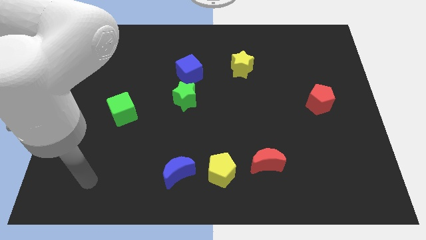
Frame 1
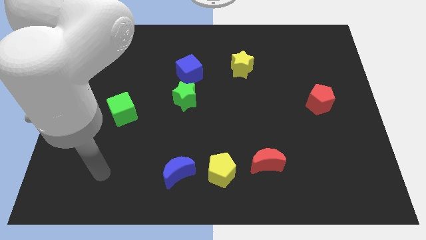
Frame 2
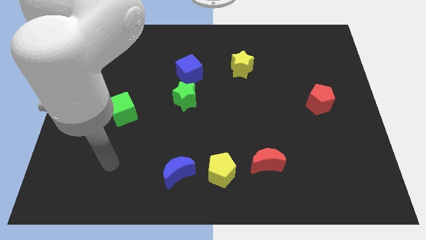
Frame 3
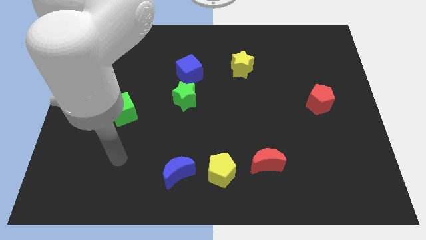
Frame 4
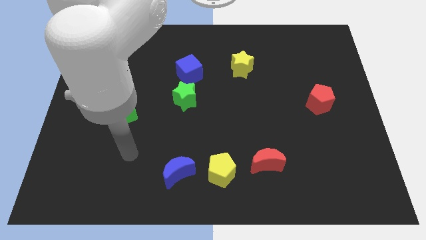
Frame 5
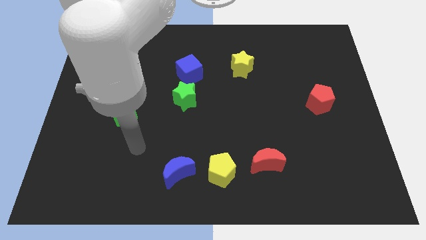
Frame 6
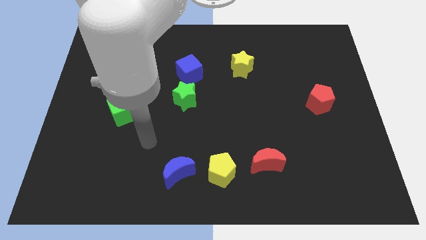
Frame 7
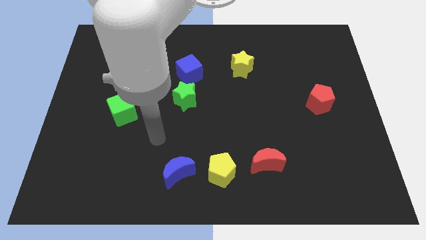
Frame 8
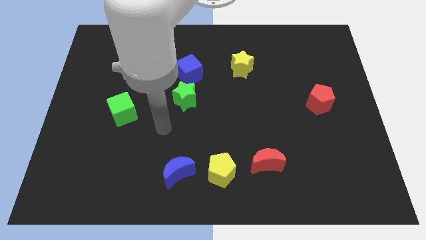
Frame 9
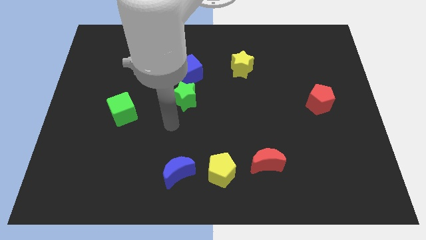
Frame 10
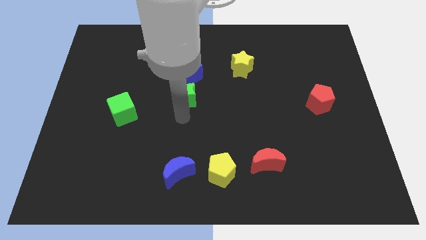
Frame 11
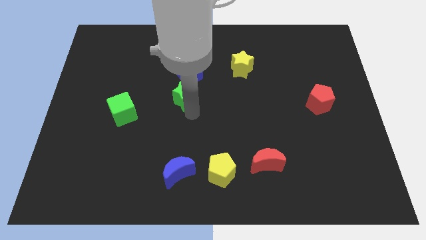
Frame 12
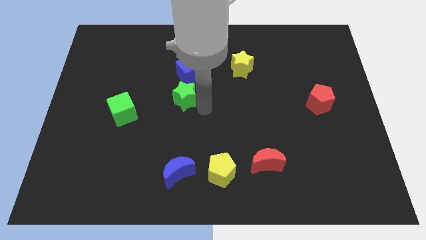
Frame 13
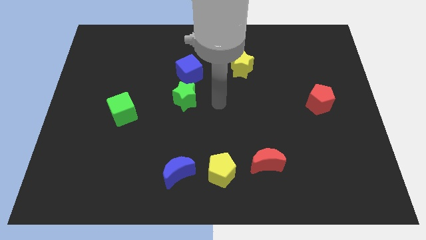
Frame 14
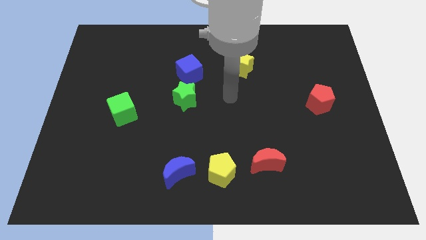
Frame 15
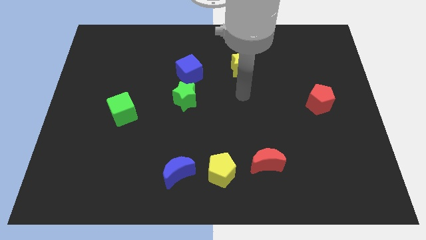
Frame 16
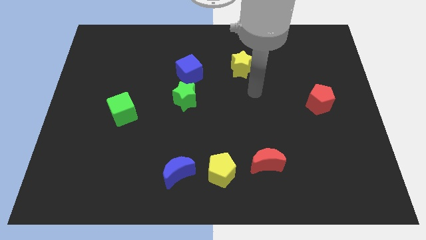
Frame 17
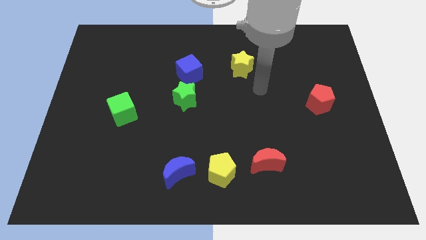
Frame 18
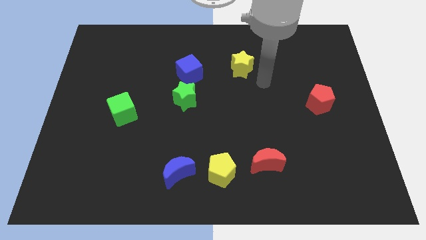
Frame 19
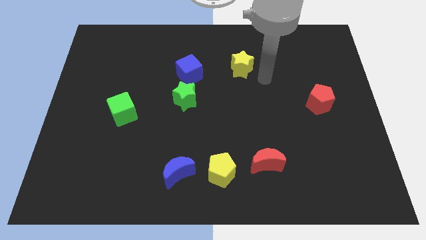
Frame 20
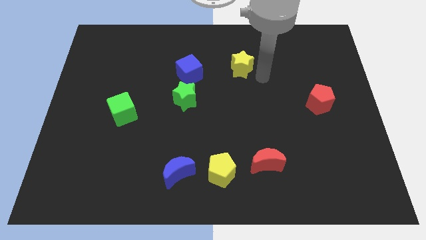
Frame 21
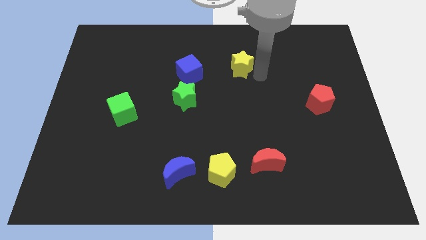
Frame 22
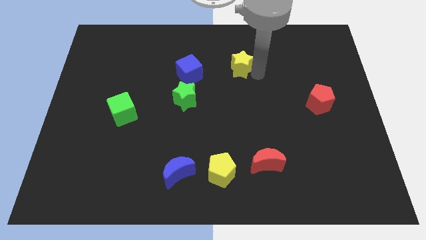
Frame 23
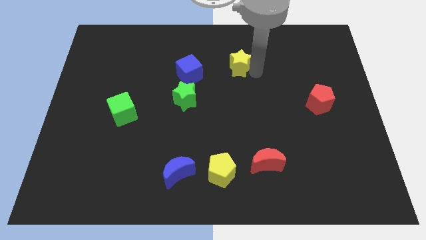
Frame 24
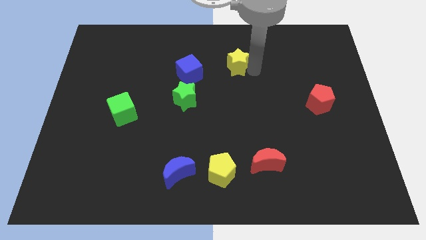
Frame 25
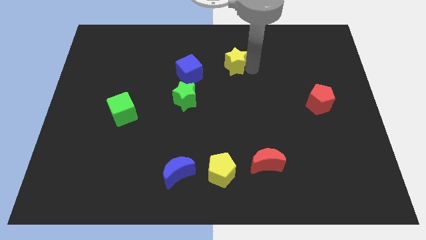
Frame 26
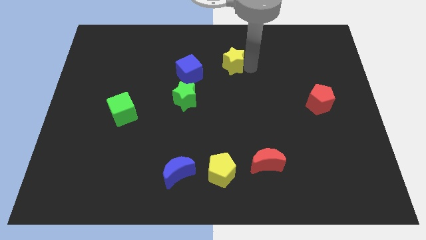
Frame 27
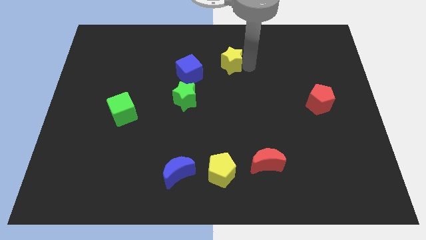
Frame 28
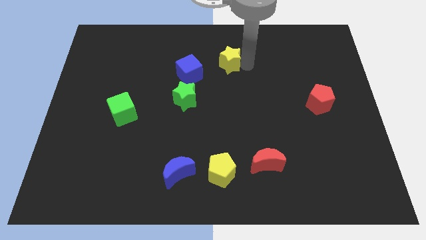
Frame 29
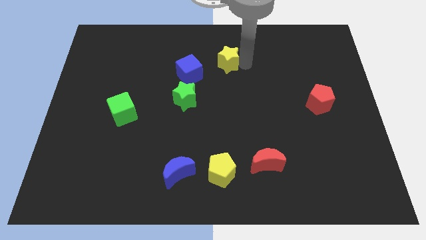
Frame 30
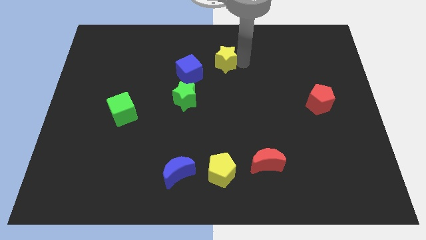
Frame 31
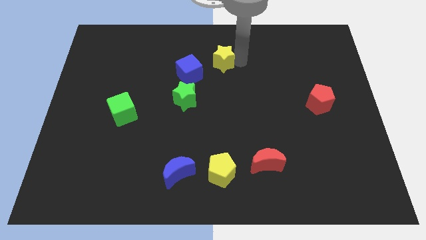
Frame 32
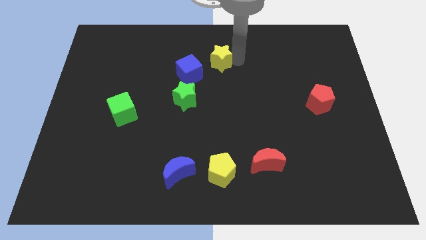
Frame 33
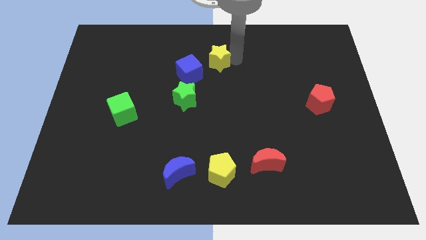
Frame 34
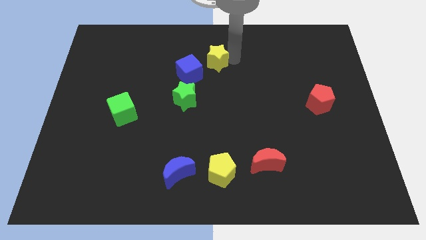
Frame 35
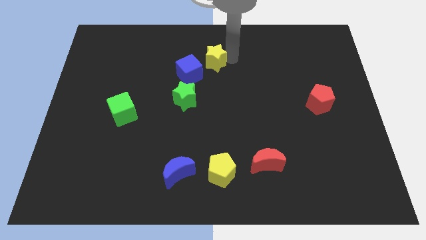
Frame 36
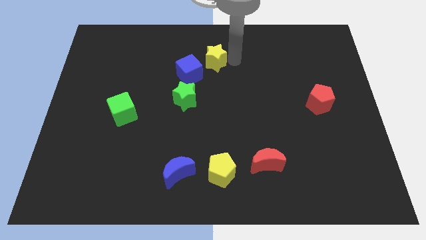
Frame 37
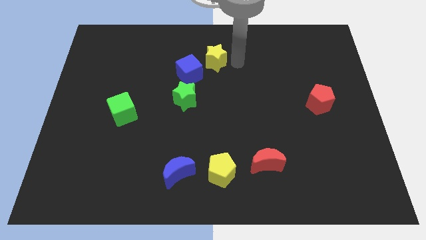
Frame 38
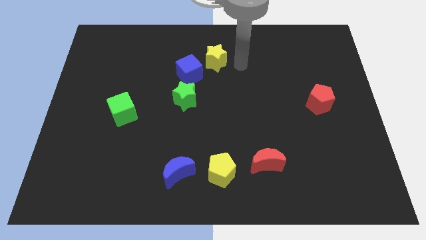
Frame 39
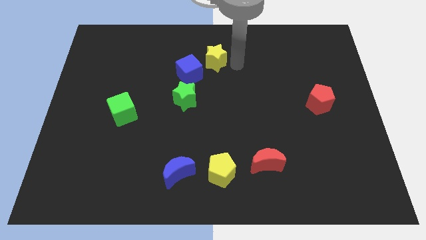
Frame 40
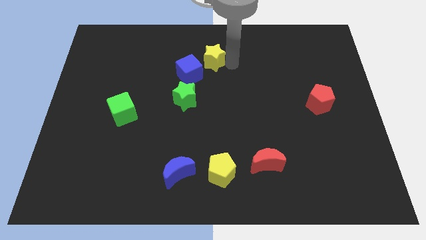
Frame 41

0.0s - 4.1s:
slide the yellow star somewhat to the left

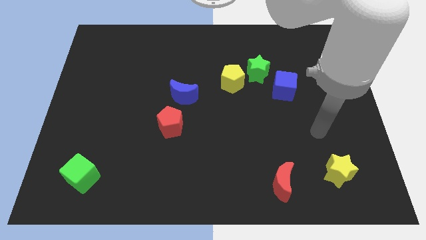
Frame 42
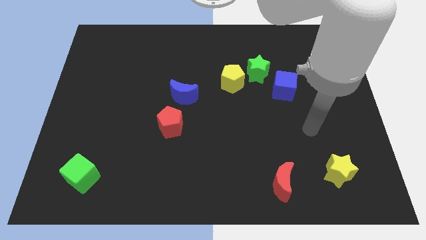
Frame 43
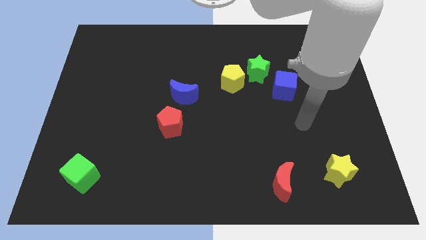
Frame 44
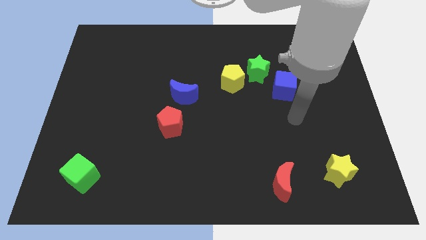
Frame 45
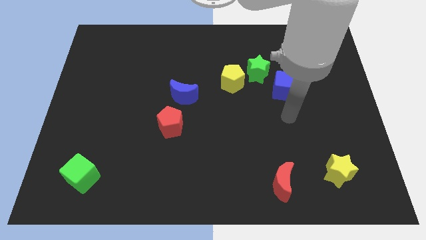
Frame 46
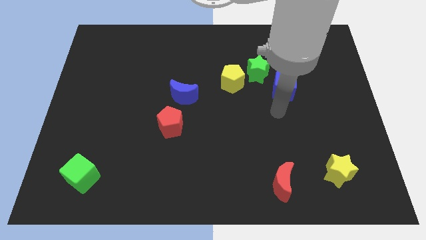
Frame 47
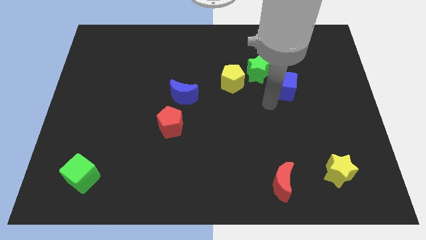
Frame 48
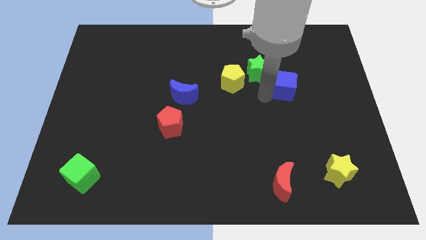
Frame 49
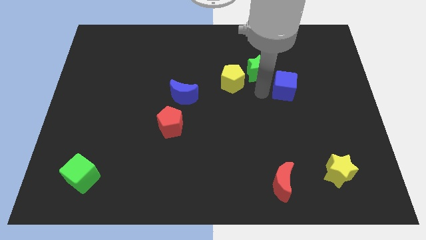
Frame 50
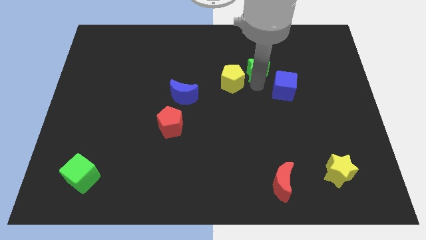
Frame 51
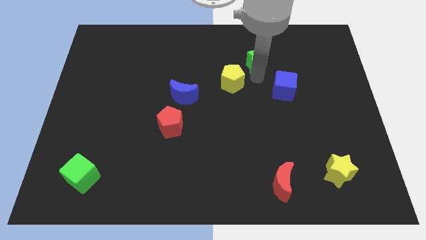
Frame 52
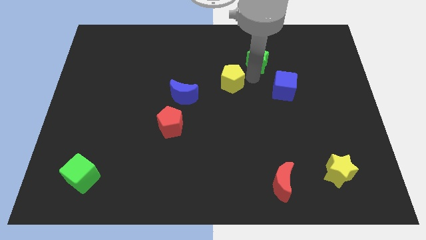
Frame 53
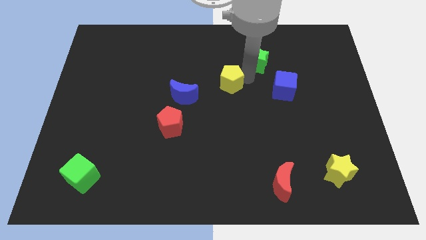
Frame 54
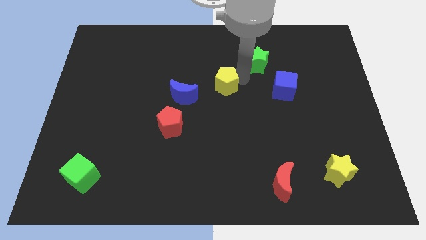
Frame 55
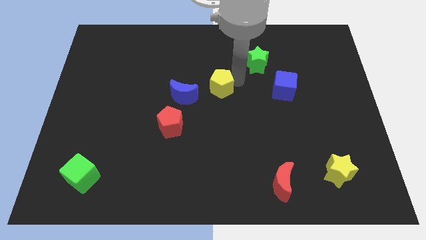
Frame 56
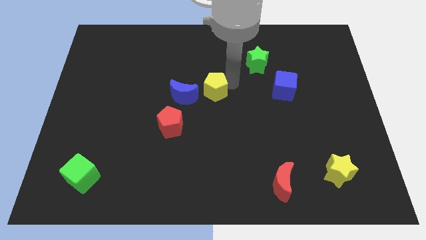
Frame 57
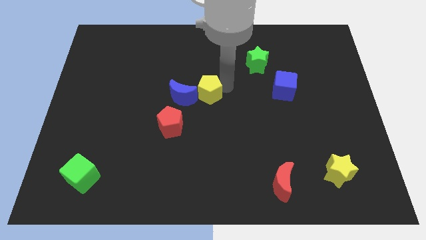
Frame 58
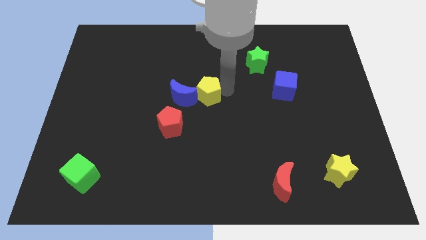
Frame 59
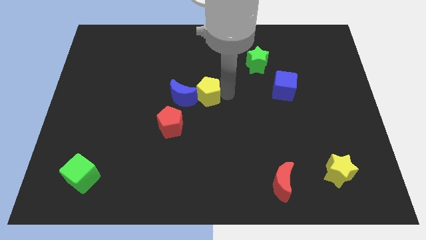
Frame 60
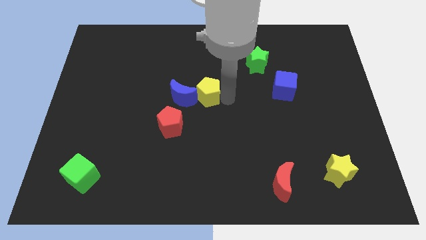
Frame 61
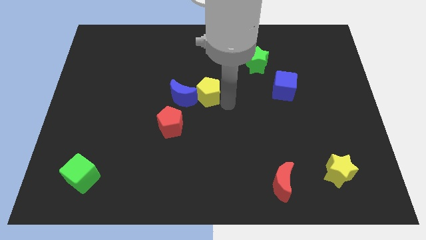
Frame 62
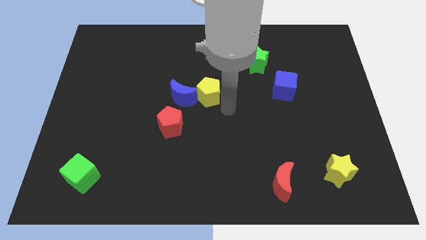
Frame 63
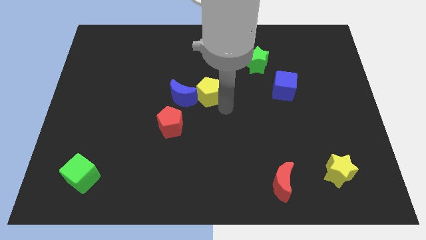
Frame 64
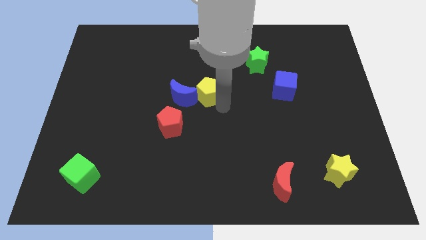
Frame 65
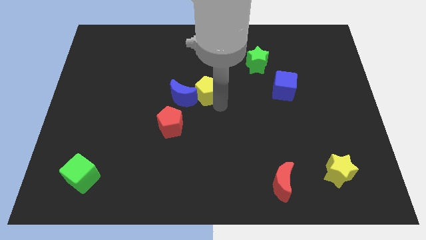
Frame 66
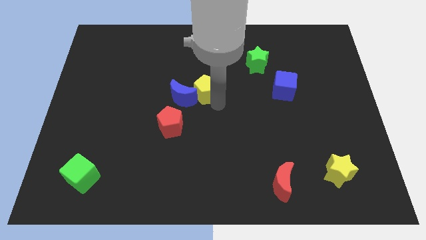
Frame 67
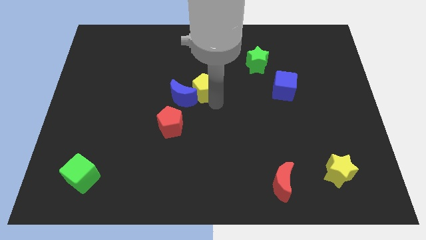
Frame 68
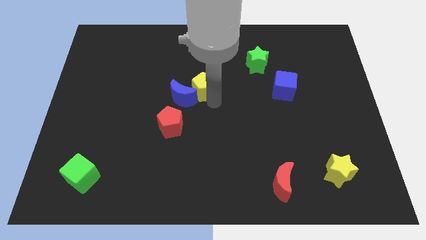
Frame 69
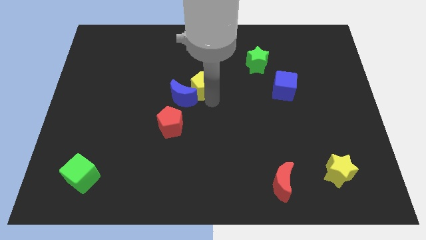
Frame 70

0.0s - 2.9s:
slightly slide the yellow pentagon left

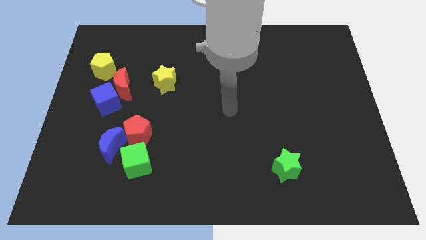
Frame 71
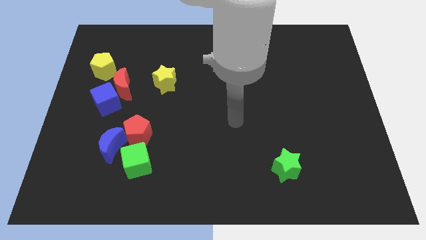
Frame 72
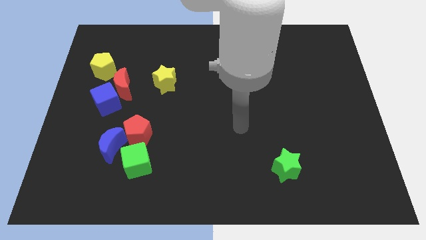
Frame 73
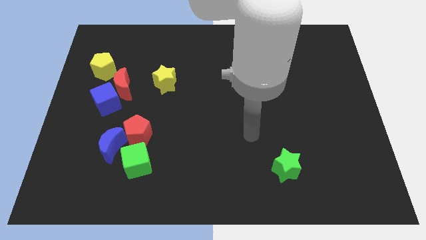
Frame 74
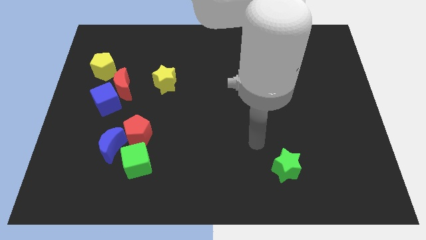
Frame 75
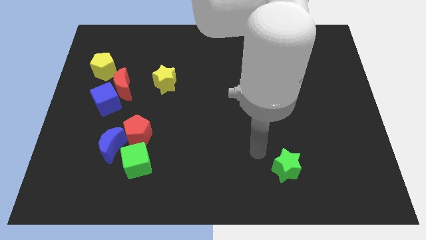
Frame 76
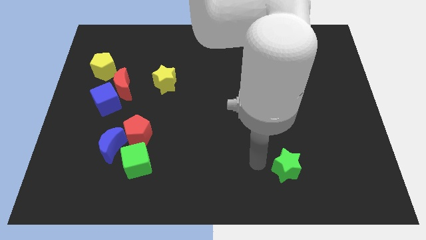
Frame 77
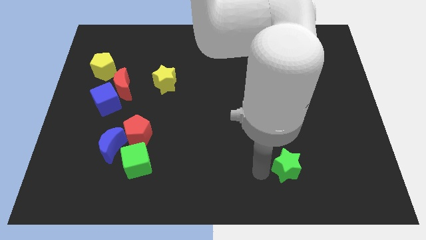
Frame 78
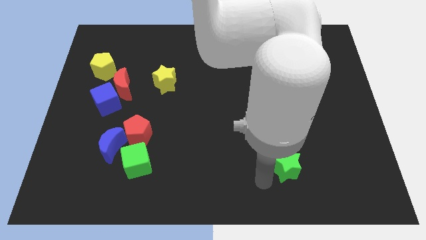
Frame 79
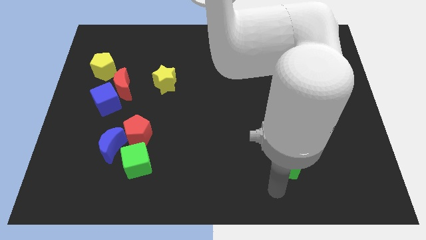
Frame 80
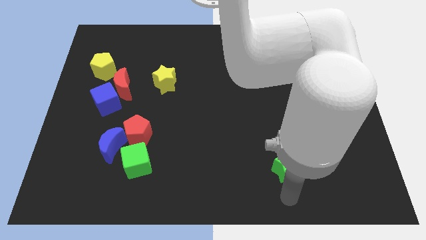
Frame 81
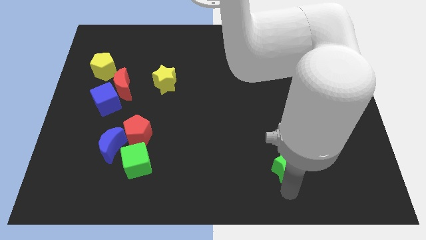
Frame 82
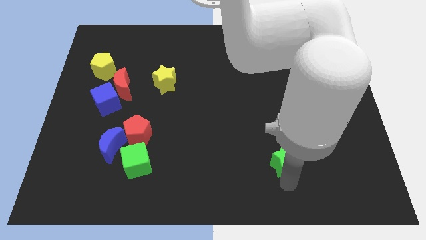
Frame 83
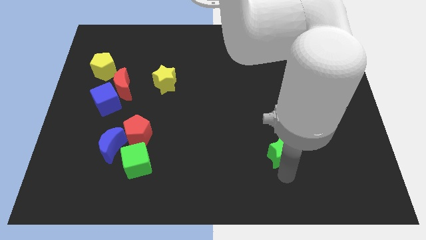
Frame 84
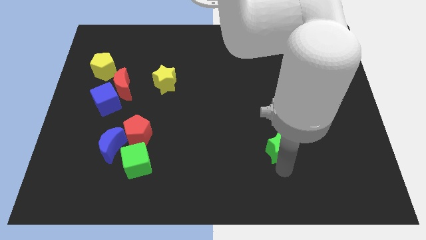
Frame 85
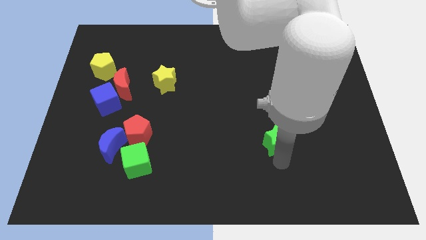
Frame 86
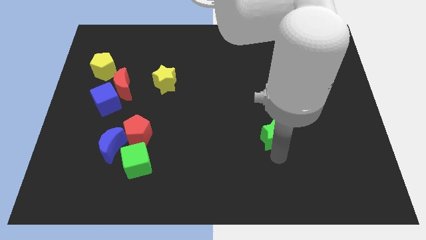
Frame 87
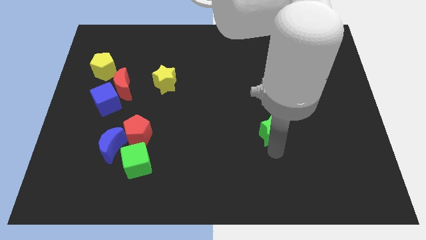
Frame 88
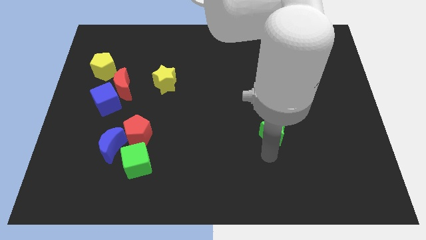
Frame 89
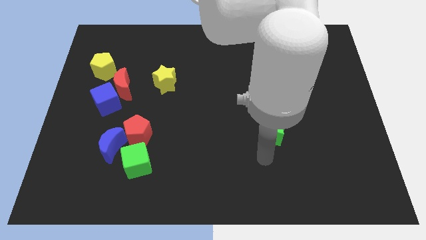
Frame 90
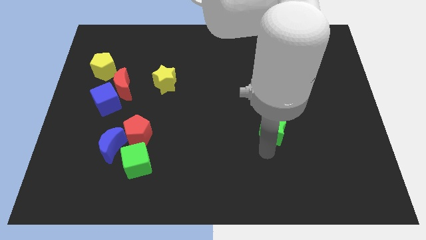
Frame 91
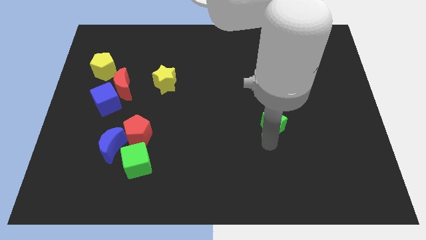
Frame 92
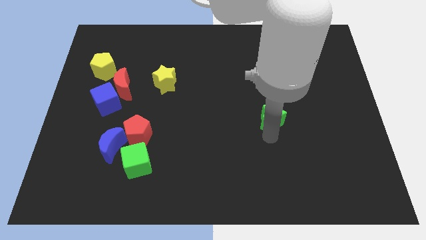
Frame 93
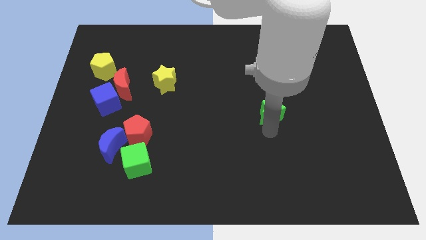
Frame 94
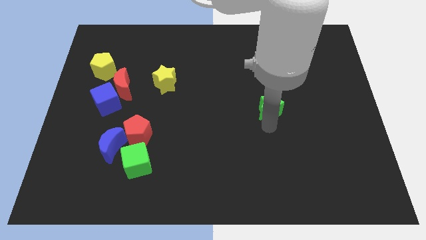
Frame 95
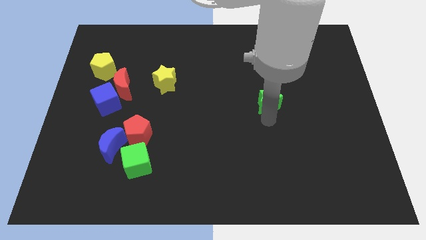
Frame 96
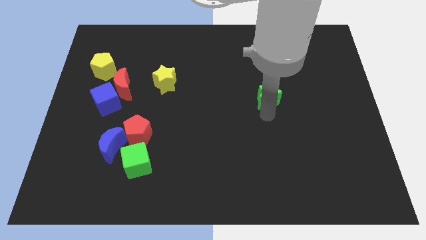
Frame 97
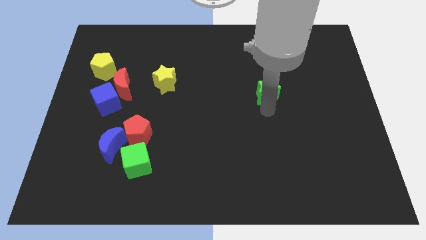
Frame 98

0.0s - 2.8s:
move the green star up
